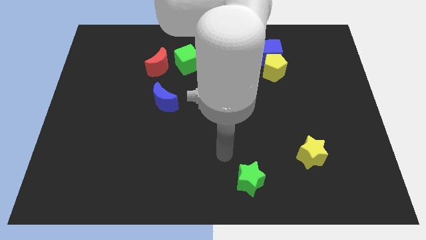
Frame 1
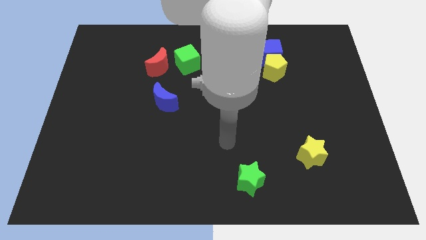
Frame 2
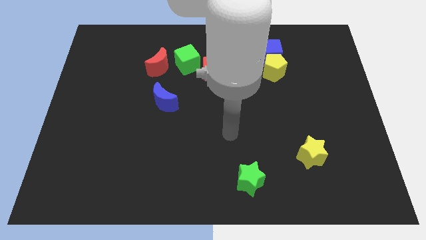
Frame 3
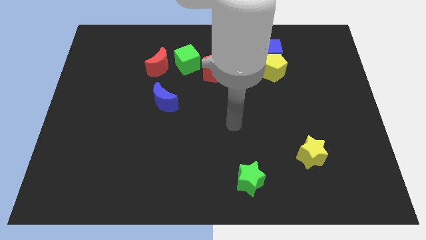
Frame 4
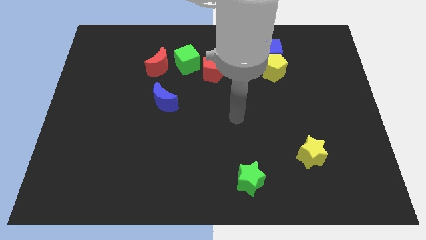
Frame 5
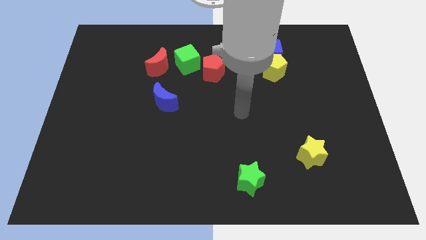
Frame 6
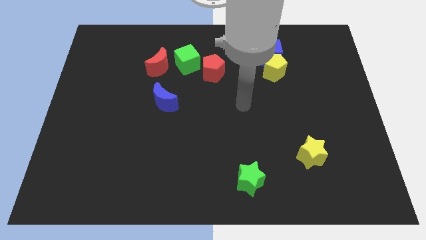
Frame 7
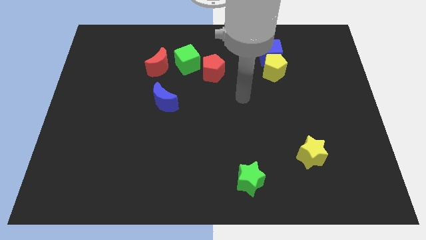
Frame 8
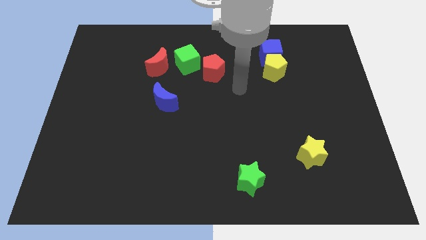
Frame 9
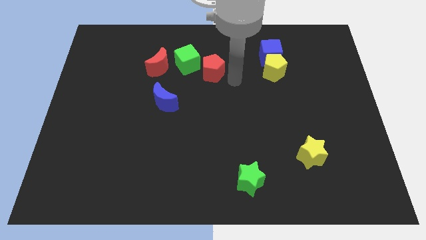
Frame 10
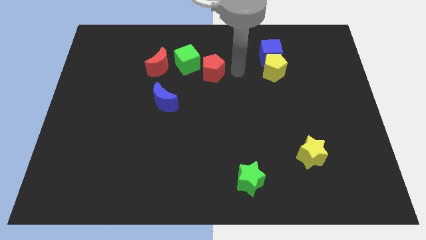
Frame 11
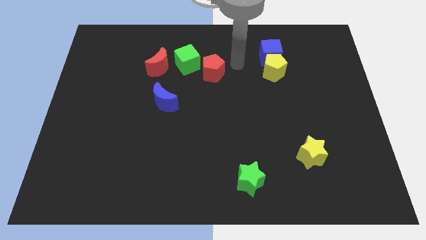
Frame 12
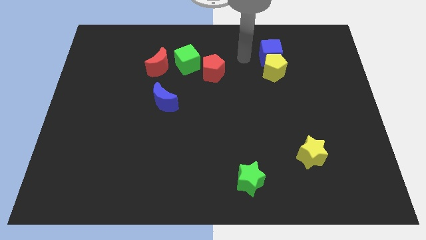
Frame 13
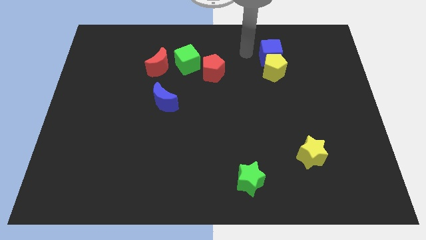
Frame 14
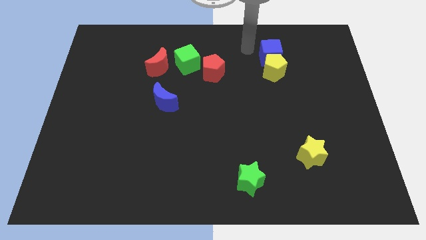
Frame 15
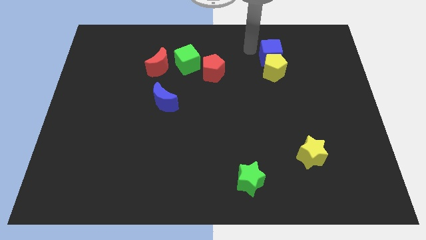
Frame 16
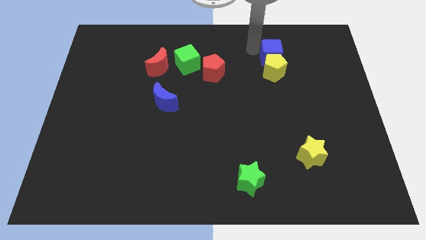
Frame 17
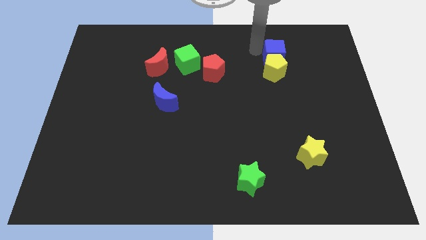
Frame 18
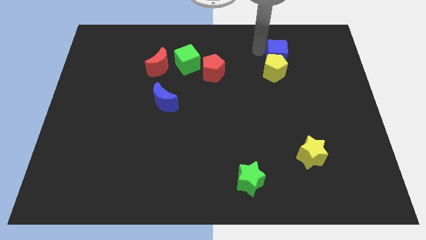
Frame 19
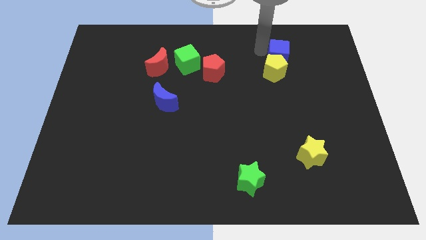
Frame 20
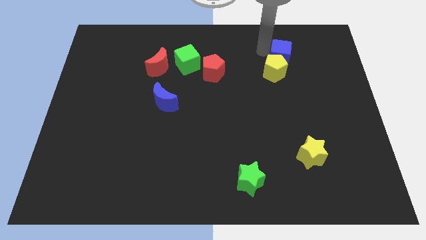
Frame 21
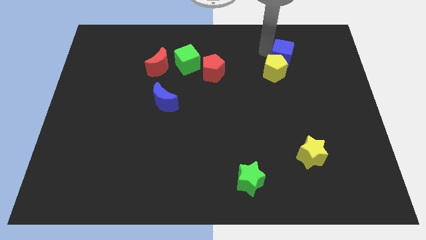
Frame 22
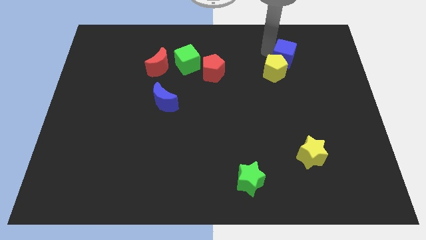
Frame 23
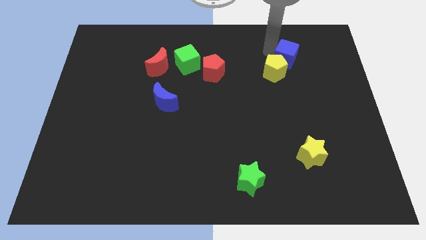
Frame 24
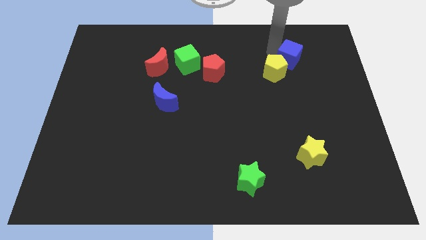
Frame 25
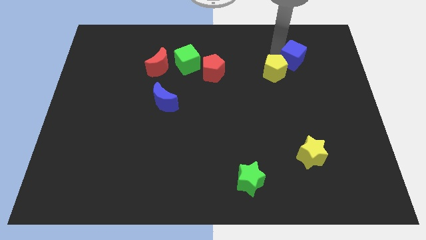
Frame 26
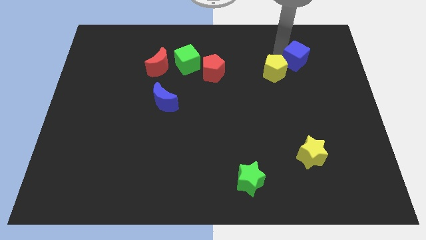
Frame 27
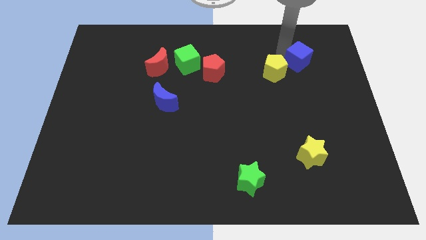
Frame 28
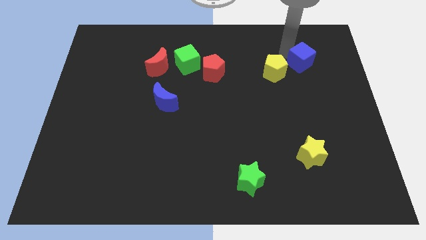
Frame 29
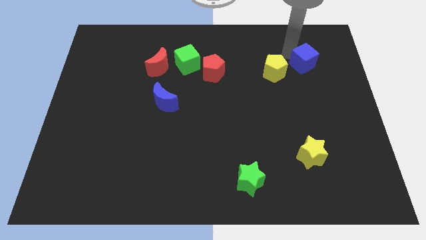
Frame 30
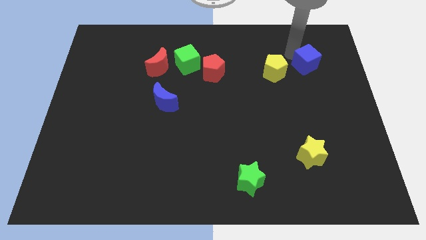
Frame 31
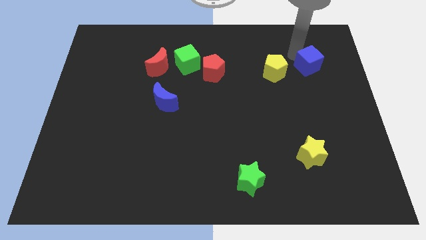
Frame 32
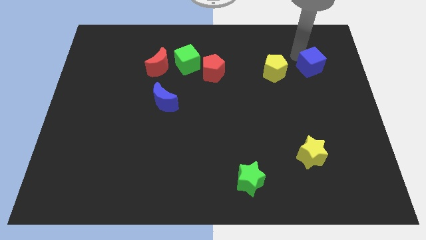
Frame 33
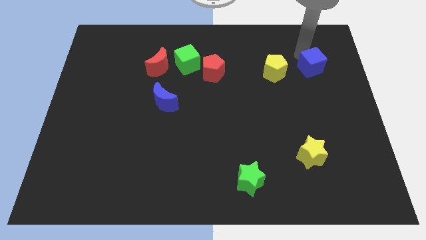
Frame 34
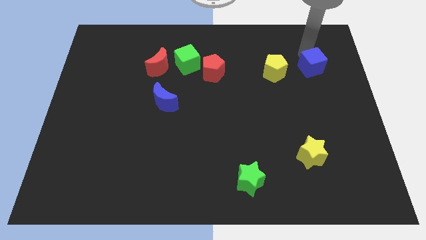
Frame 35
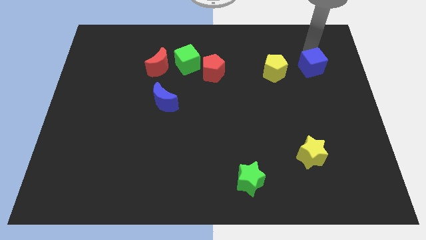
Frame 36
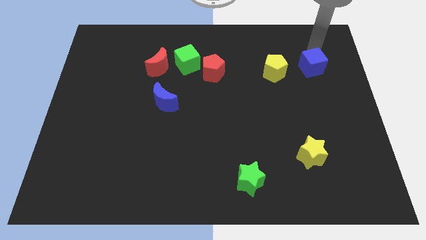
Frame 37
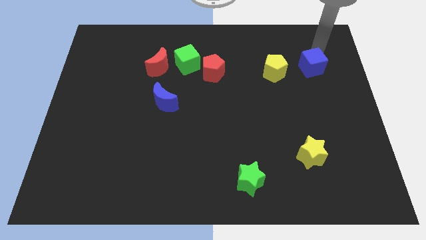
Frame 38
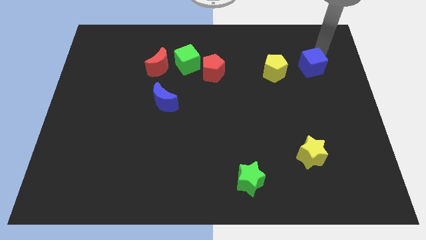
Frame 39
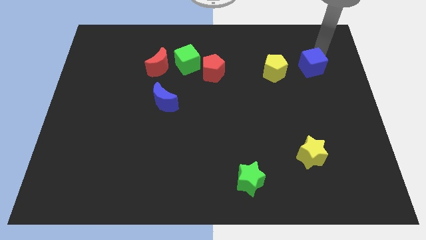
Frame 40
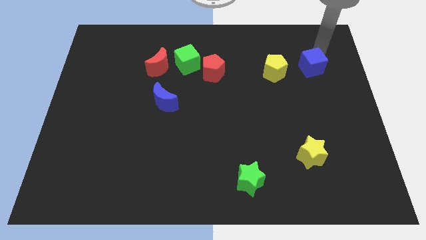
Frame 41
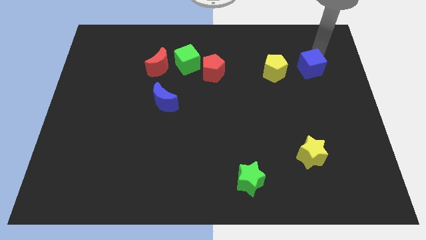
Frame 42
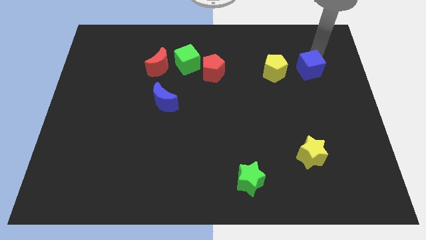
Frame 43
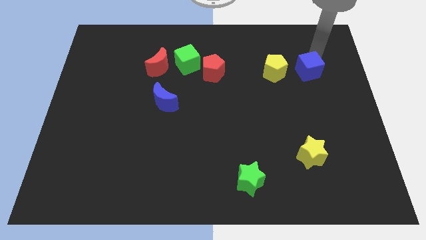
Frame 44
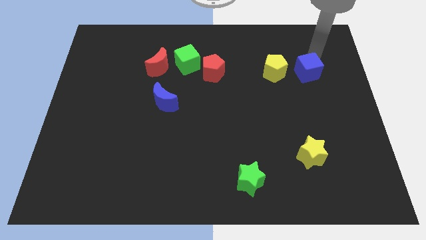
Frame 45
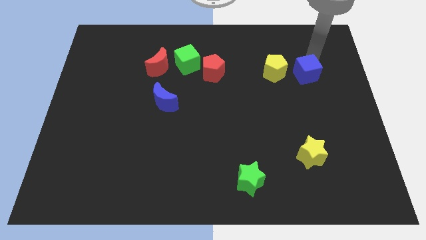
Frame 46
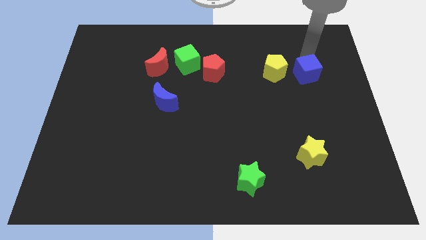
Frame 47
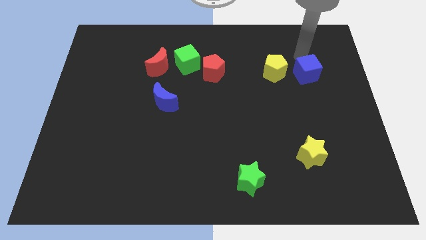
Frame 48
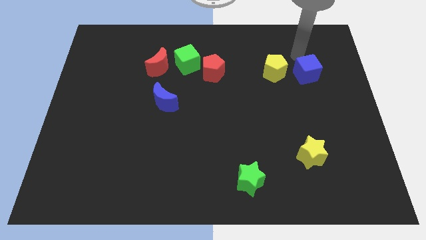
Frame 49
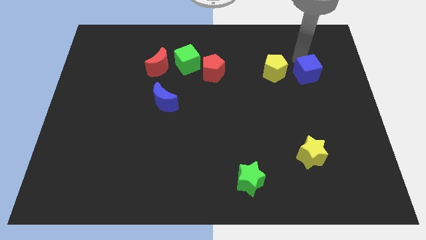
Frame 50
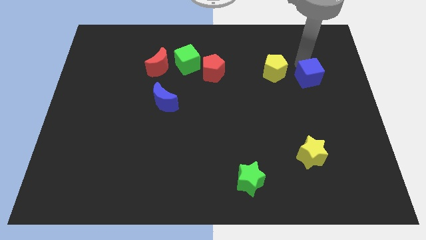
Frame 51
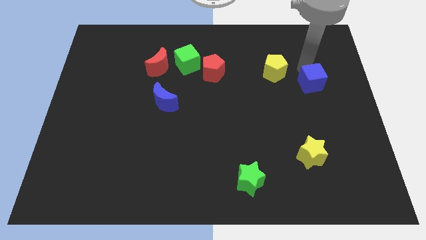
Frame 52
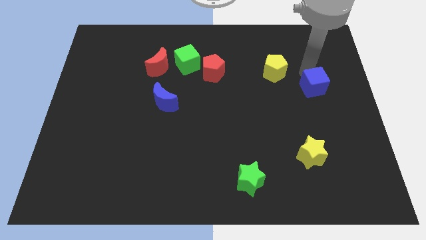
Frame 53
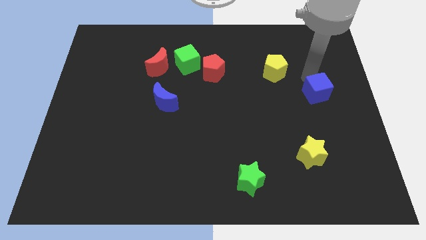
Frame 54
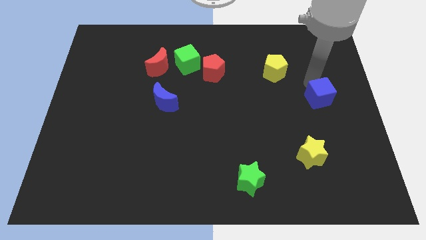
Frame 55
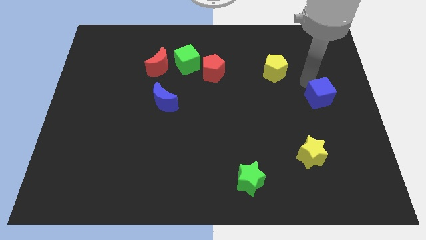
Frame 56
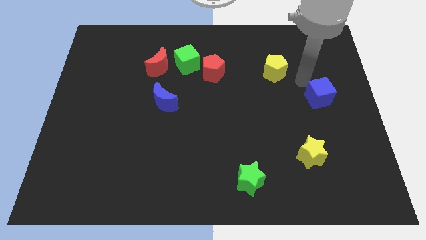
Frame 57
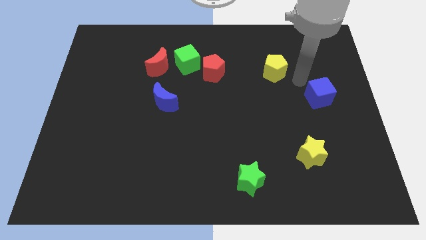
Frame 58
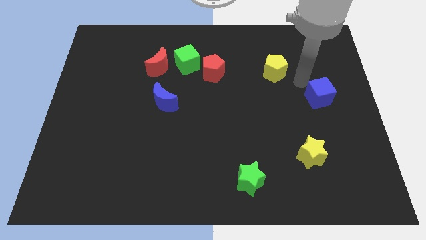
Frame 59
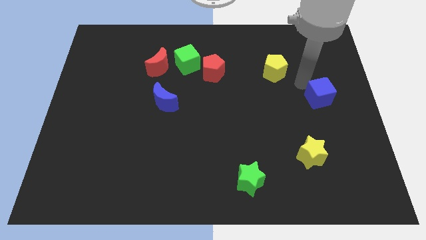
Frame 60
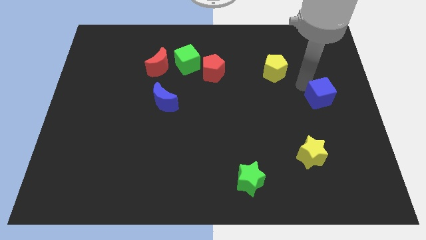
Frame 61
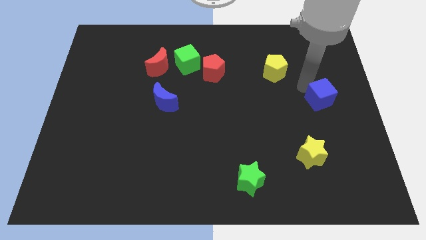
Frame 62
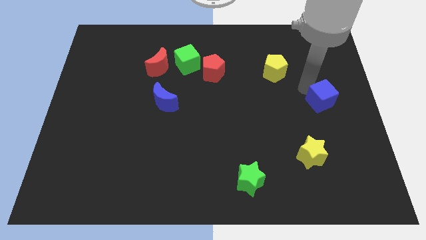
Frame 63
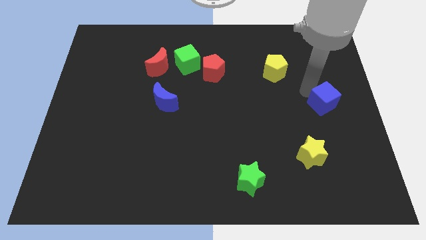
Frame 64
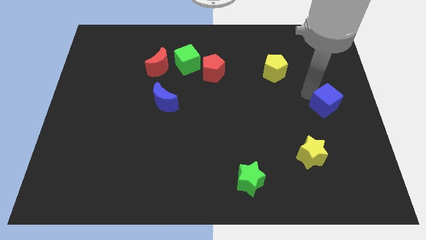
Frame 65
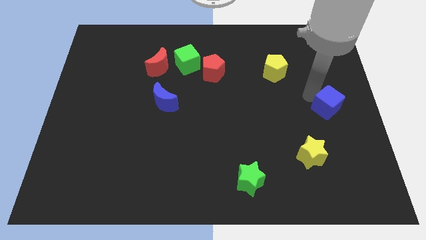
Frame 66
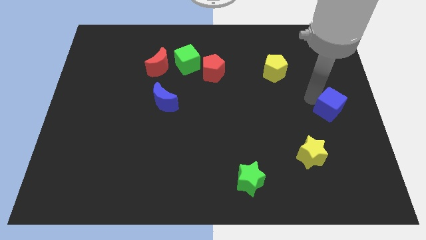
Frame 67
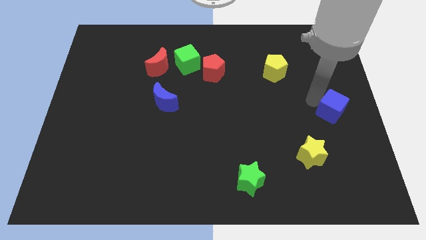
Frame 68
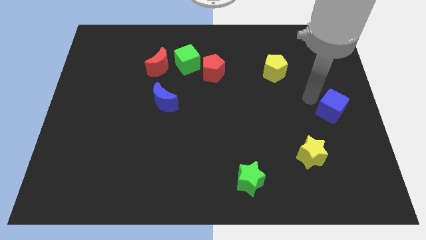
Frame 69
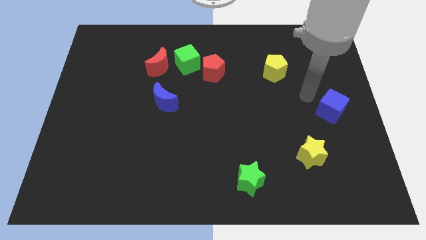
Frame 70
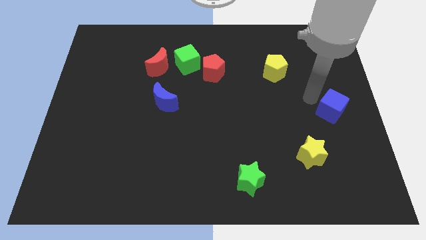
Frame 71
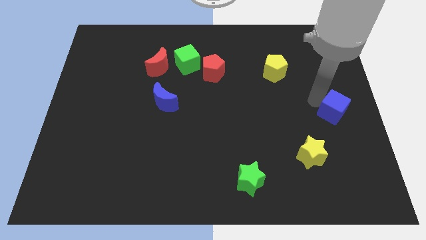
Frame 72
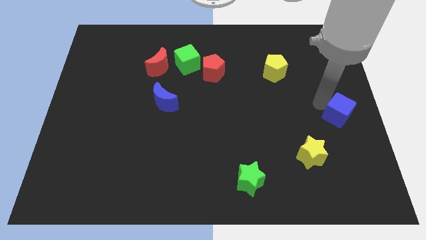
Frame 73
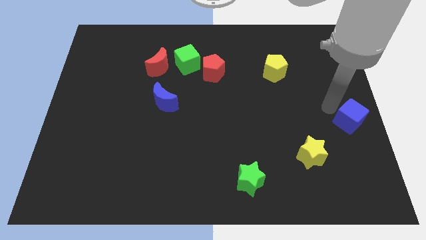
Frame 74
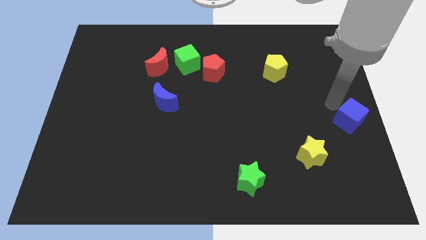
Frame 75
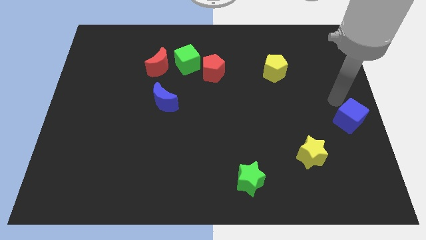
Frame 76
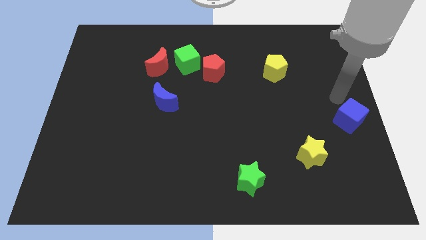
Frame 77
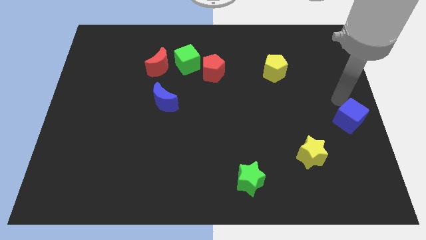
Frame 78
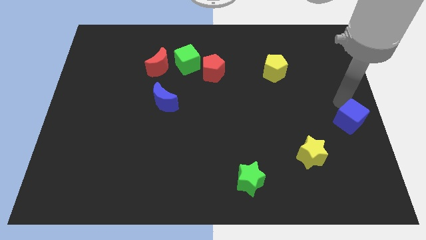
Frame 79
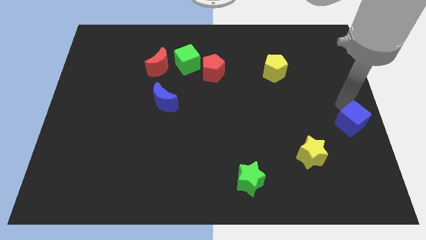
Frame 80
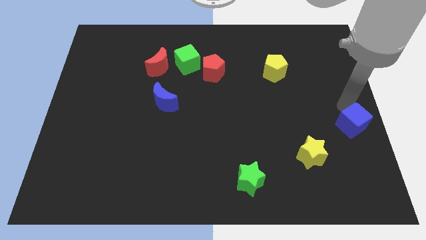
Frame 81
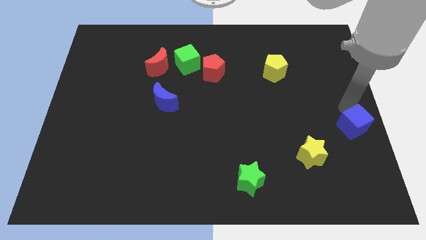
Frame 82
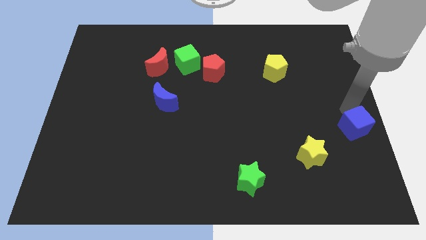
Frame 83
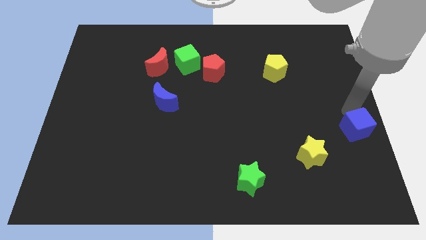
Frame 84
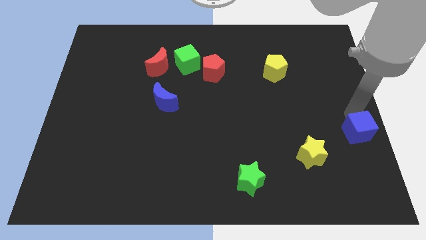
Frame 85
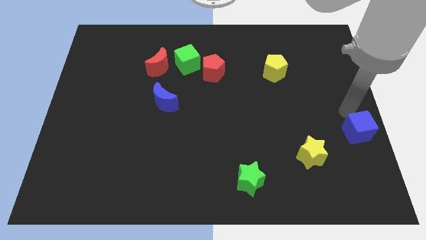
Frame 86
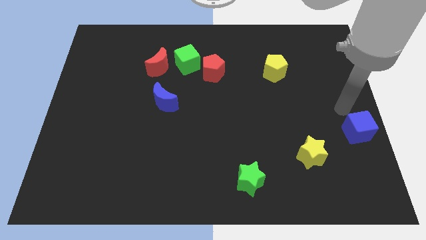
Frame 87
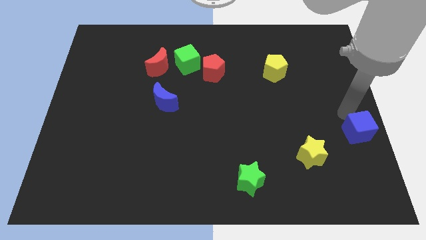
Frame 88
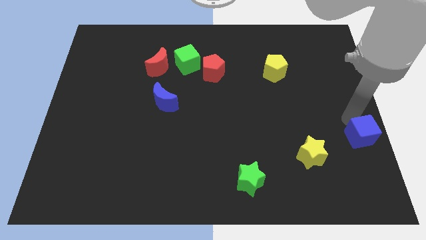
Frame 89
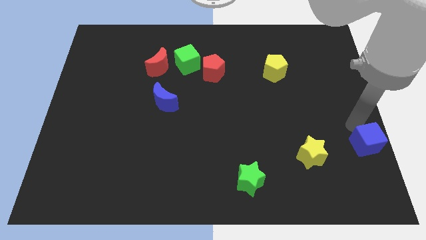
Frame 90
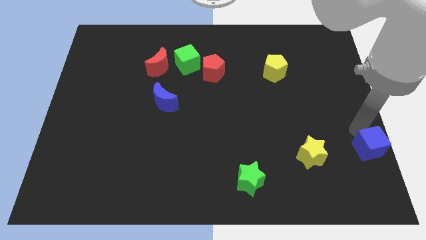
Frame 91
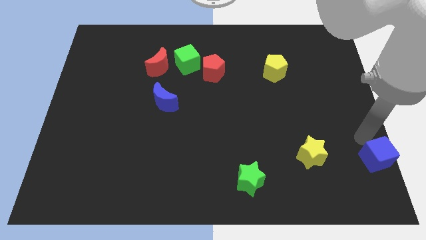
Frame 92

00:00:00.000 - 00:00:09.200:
slide the blue cube to the lower right corner
